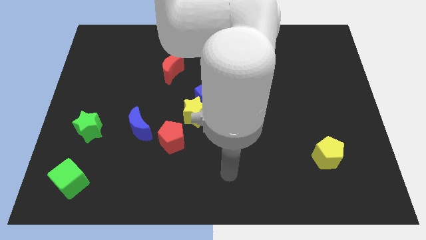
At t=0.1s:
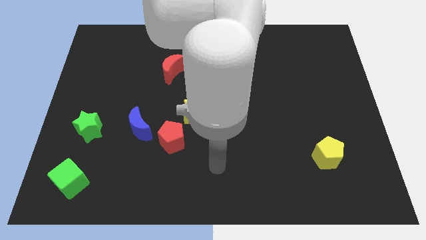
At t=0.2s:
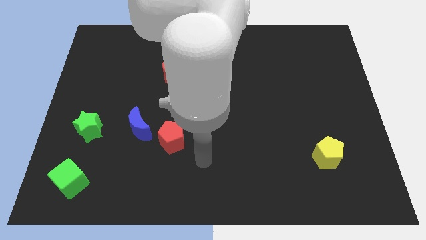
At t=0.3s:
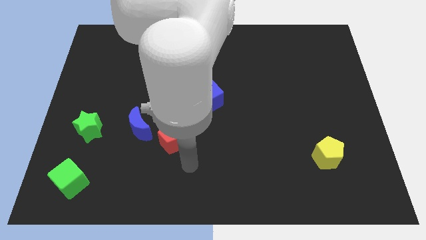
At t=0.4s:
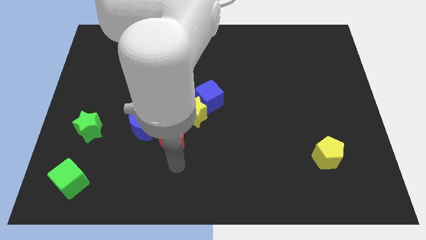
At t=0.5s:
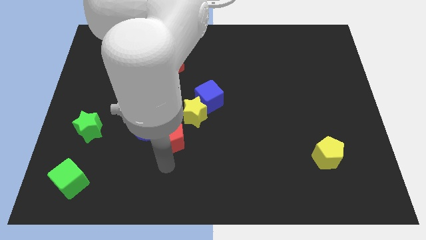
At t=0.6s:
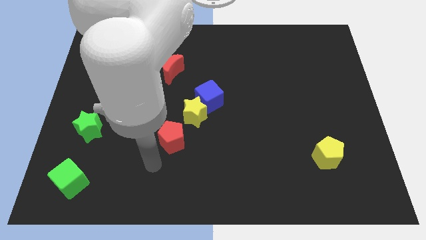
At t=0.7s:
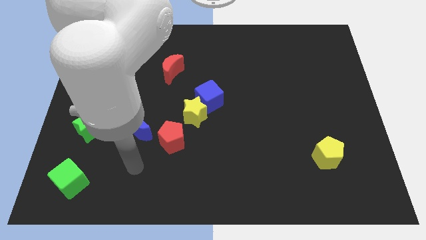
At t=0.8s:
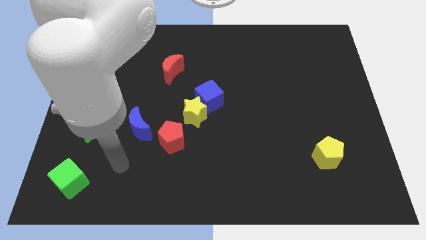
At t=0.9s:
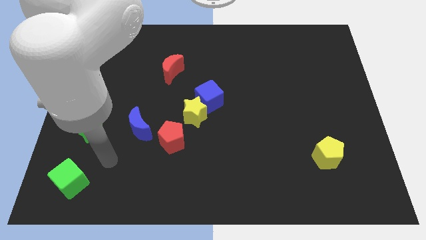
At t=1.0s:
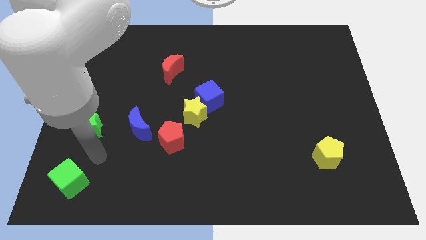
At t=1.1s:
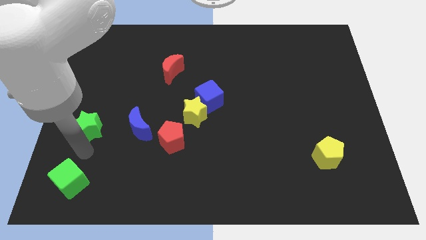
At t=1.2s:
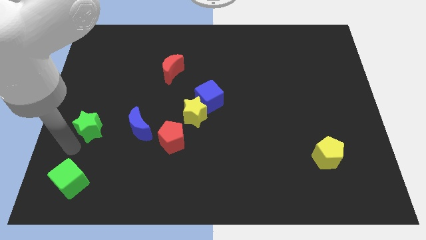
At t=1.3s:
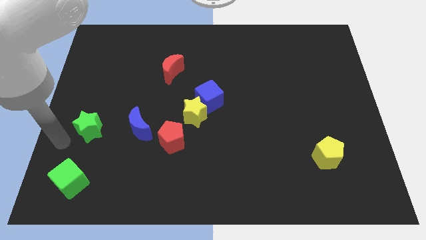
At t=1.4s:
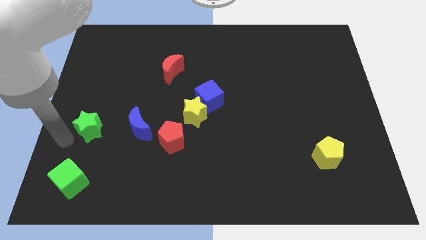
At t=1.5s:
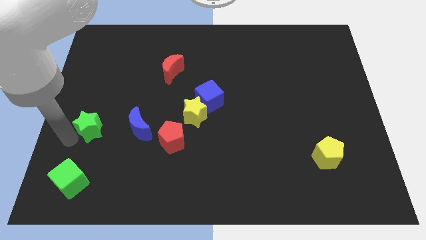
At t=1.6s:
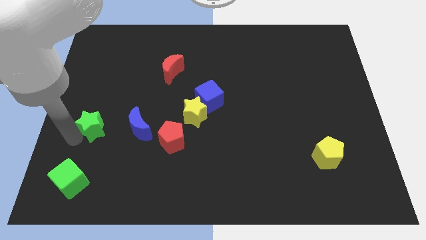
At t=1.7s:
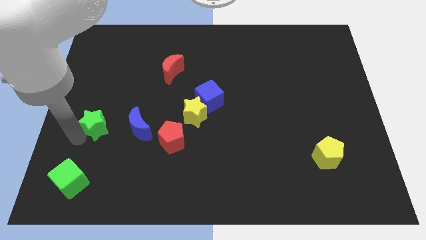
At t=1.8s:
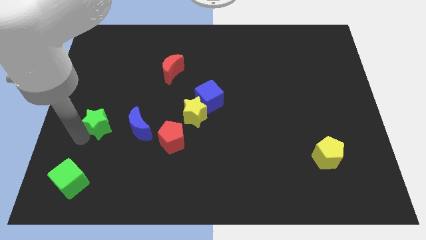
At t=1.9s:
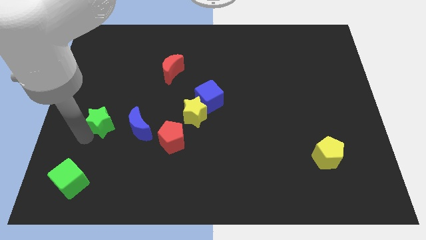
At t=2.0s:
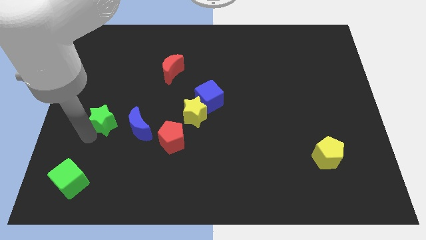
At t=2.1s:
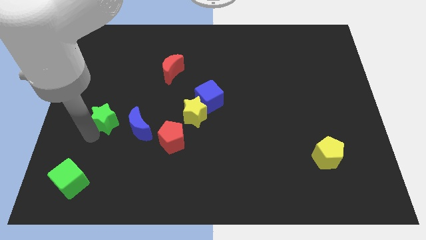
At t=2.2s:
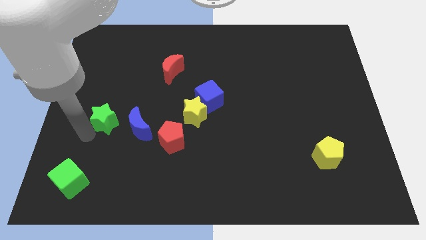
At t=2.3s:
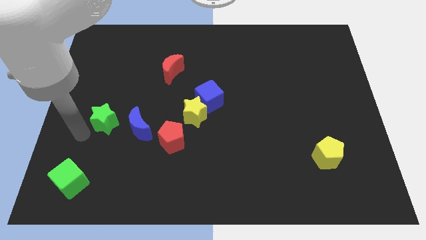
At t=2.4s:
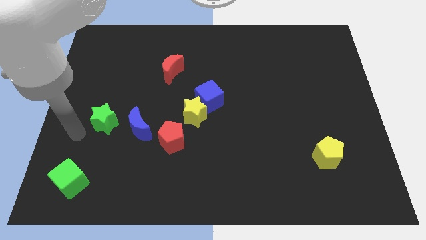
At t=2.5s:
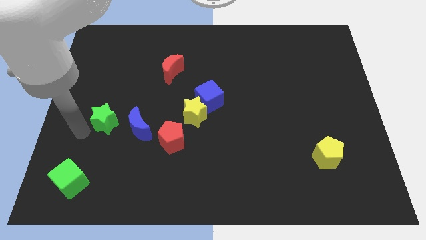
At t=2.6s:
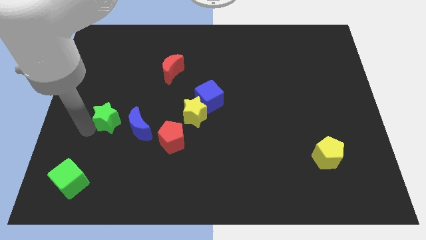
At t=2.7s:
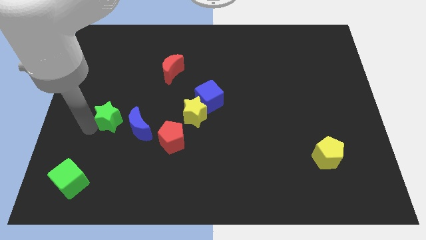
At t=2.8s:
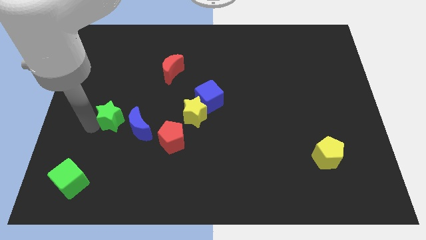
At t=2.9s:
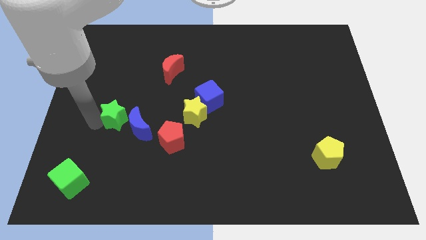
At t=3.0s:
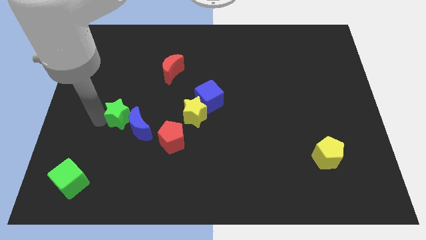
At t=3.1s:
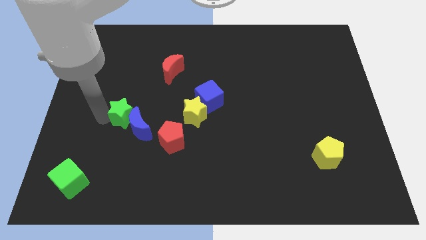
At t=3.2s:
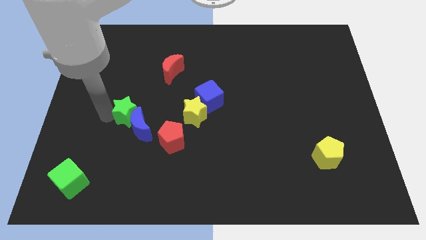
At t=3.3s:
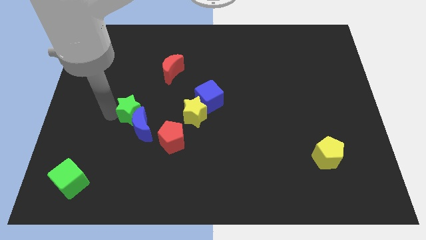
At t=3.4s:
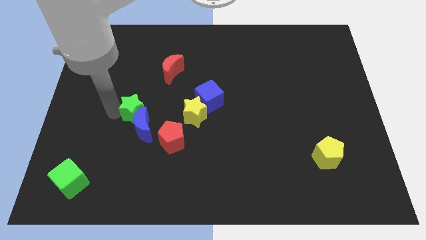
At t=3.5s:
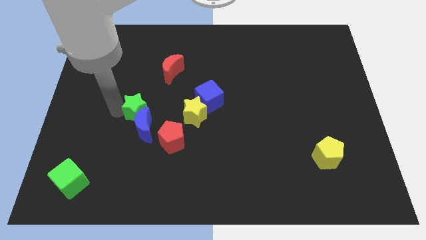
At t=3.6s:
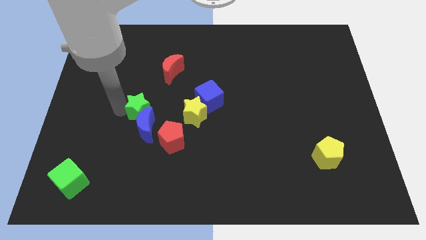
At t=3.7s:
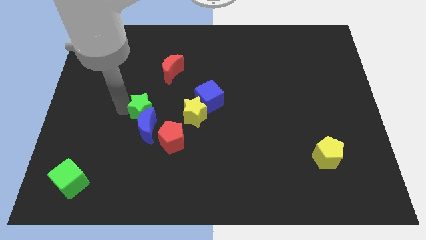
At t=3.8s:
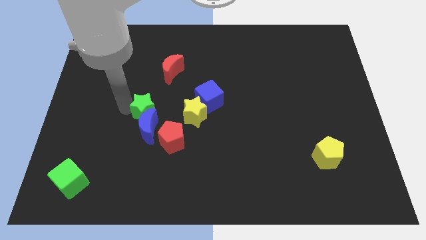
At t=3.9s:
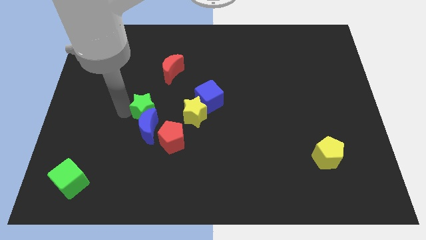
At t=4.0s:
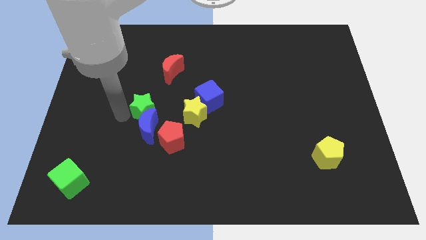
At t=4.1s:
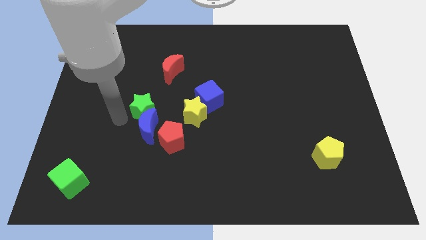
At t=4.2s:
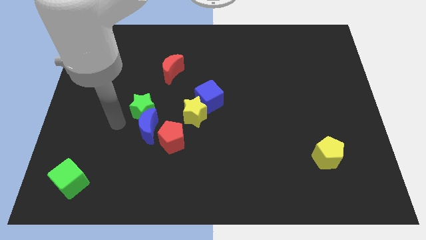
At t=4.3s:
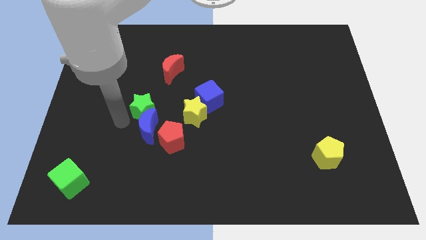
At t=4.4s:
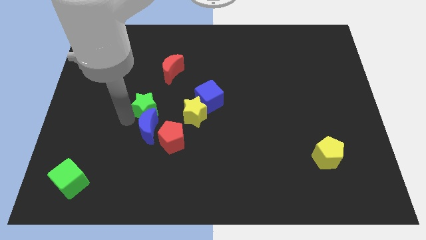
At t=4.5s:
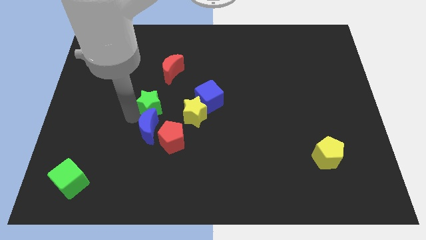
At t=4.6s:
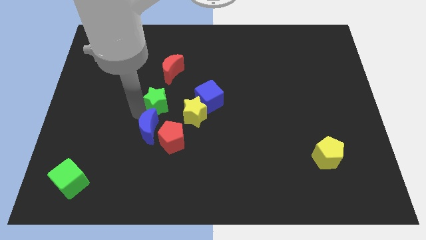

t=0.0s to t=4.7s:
put the green star to the top of the red pentagon

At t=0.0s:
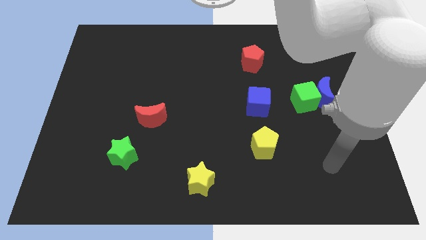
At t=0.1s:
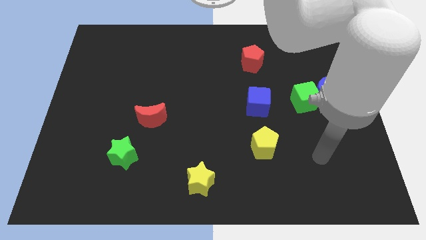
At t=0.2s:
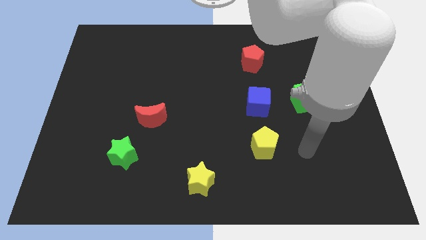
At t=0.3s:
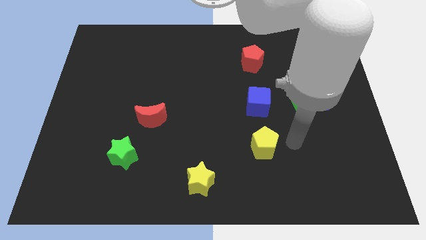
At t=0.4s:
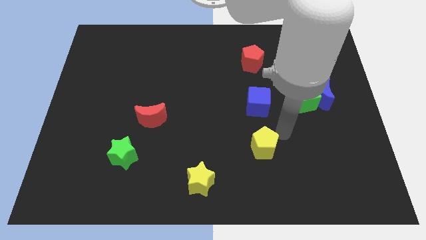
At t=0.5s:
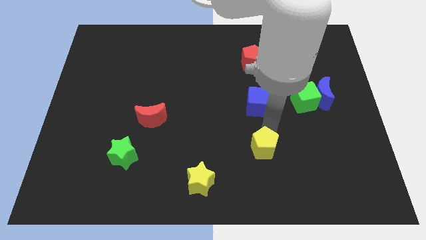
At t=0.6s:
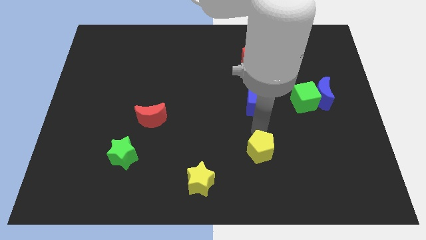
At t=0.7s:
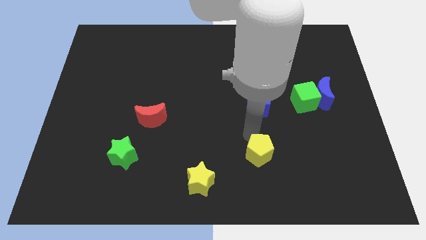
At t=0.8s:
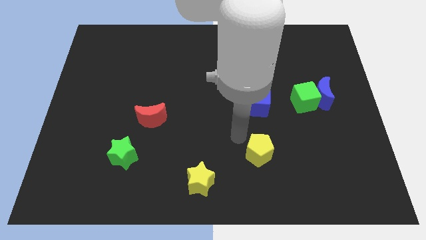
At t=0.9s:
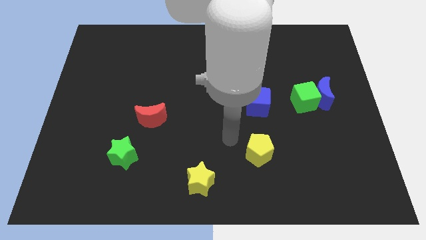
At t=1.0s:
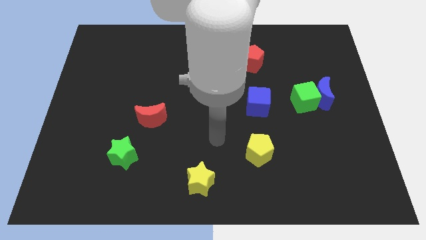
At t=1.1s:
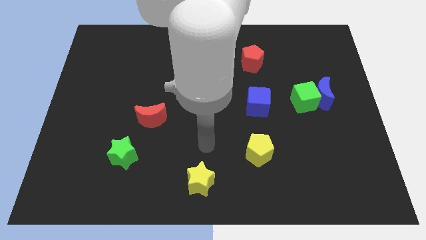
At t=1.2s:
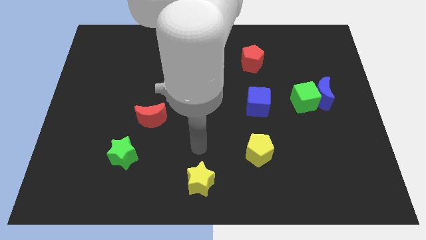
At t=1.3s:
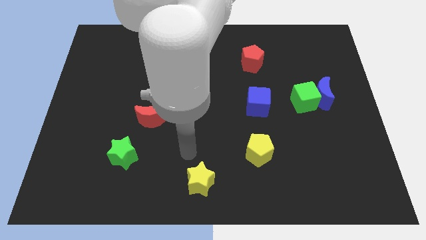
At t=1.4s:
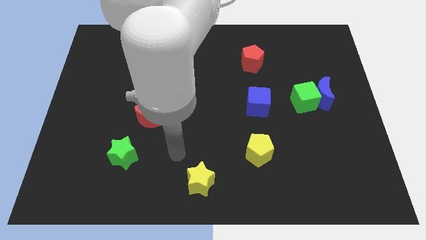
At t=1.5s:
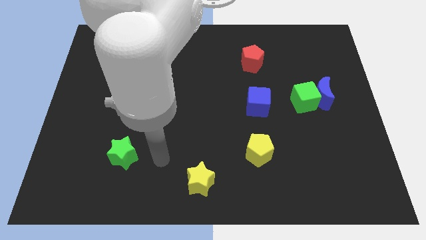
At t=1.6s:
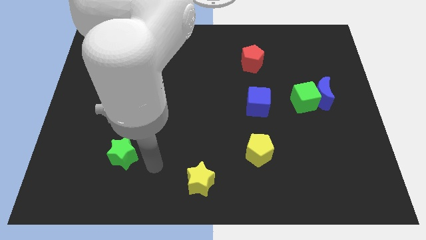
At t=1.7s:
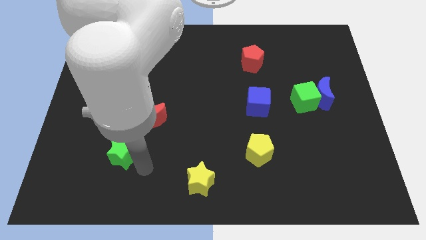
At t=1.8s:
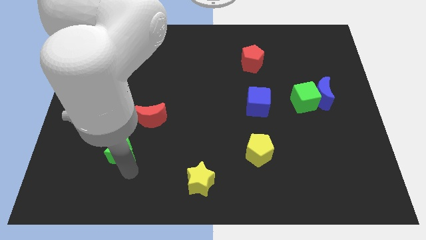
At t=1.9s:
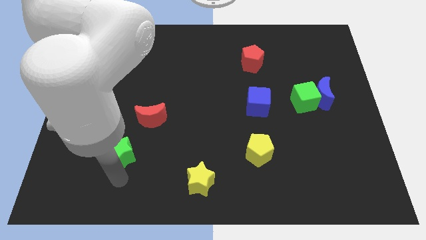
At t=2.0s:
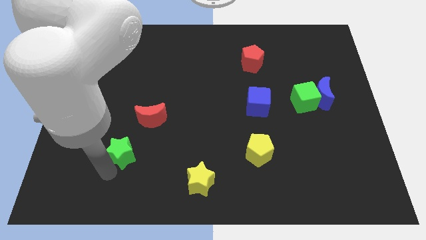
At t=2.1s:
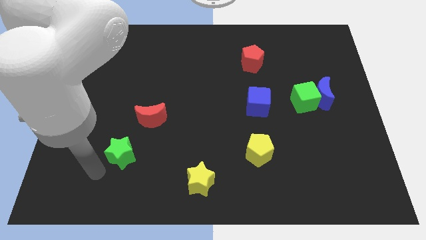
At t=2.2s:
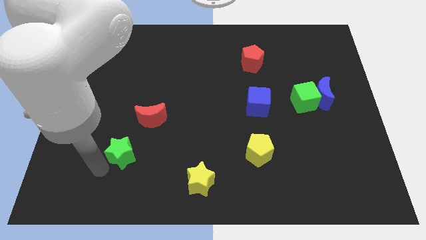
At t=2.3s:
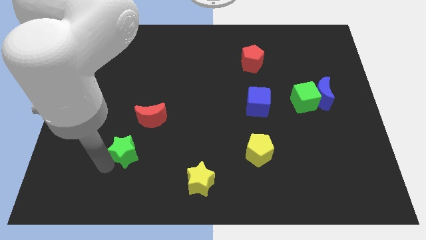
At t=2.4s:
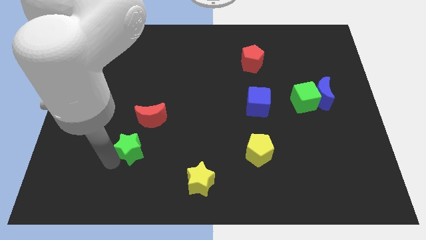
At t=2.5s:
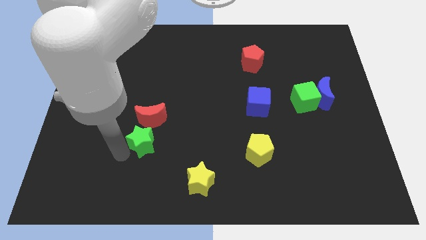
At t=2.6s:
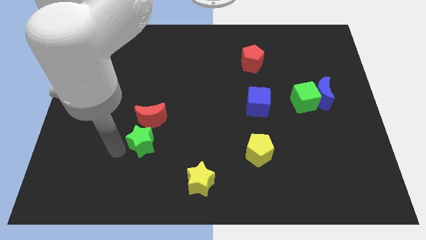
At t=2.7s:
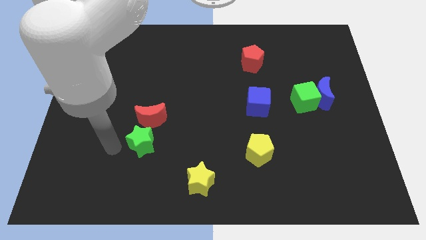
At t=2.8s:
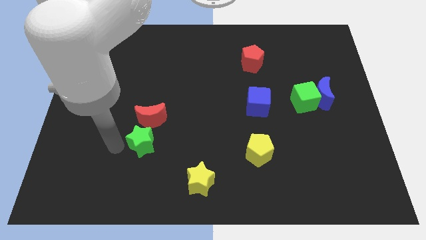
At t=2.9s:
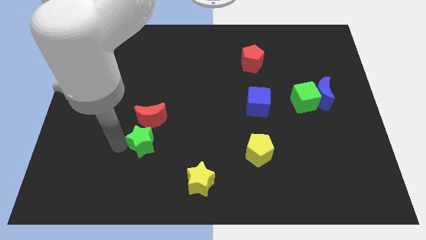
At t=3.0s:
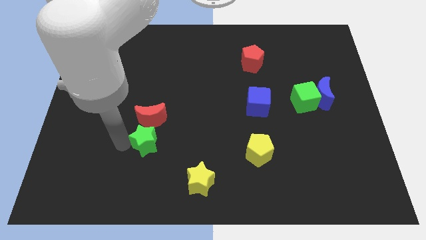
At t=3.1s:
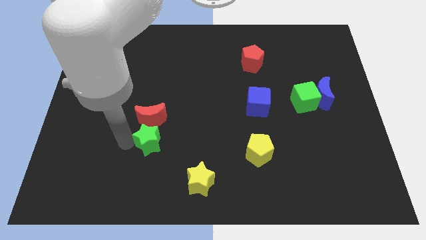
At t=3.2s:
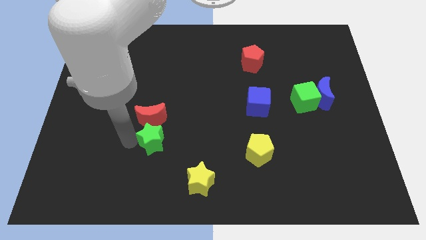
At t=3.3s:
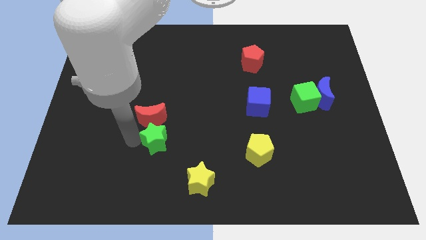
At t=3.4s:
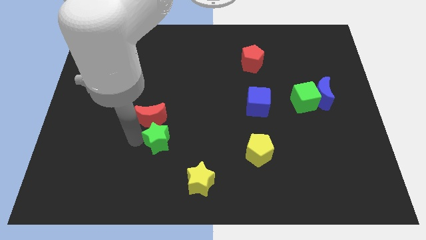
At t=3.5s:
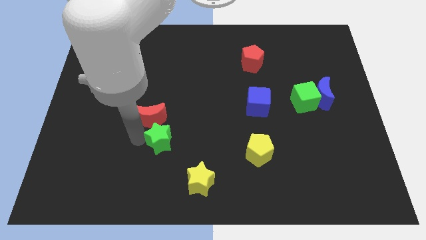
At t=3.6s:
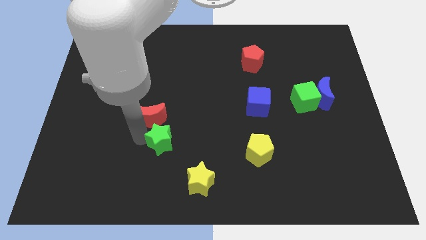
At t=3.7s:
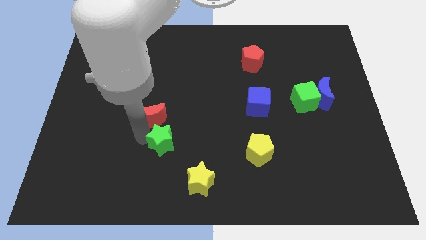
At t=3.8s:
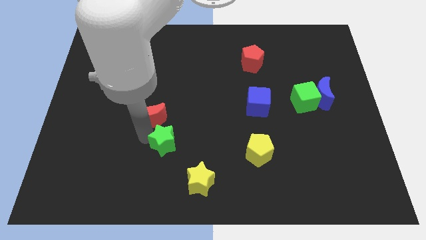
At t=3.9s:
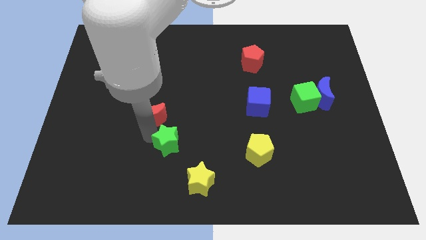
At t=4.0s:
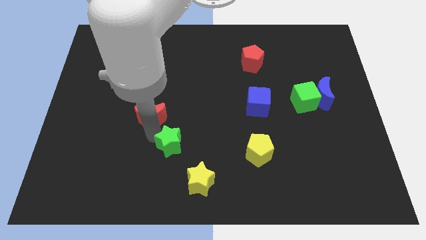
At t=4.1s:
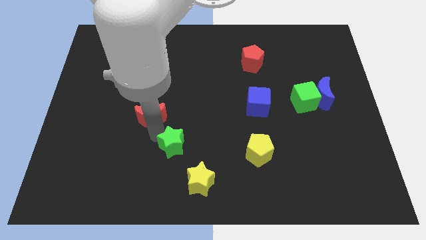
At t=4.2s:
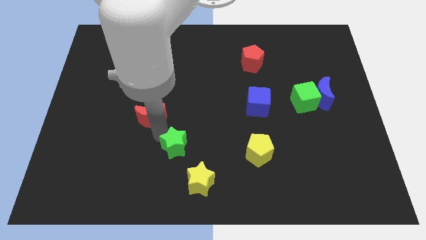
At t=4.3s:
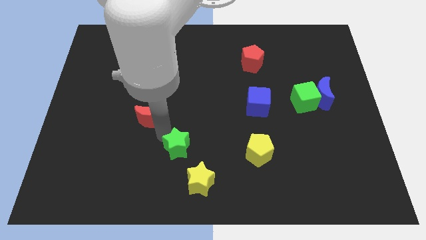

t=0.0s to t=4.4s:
move the green star to the top of the yellow star
